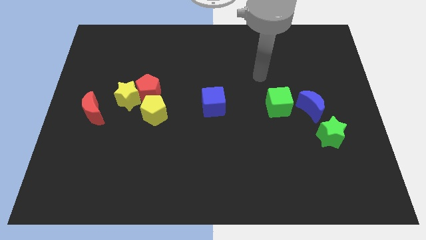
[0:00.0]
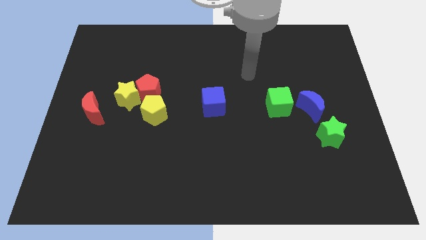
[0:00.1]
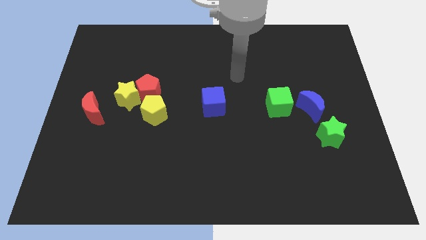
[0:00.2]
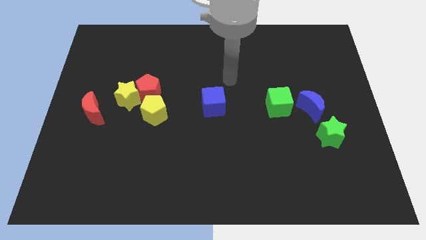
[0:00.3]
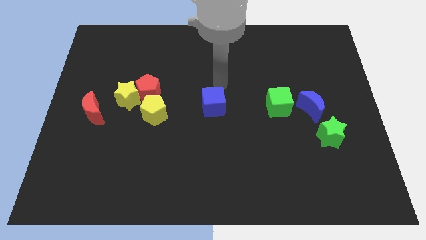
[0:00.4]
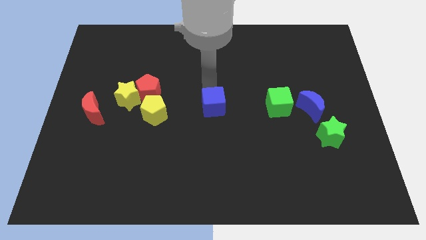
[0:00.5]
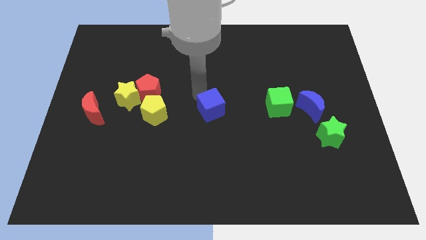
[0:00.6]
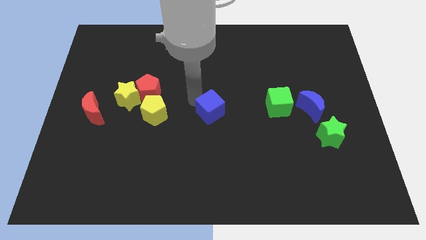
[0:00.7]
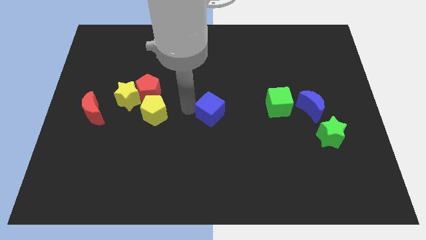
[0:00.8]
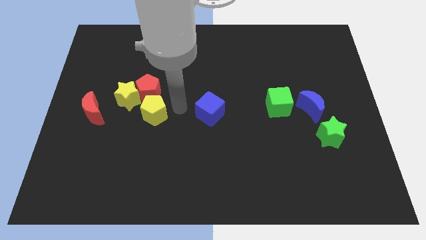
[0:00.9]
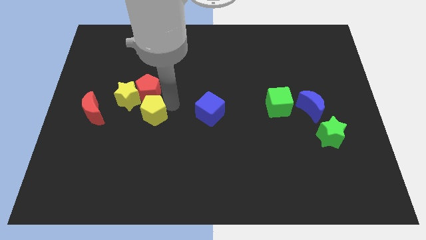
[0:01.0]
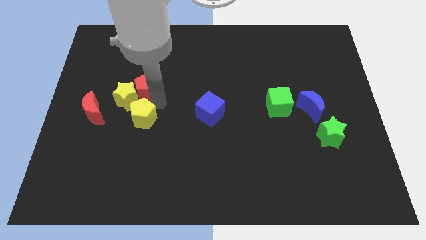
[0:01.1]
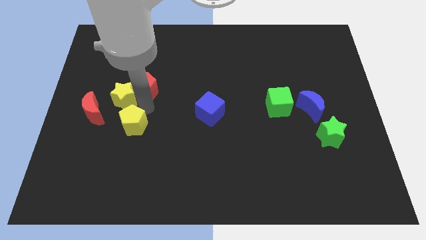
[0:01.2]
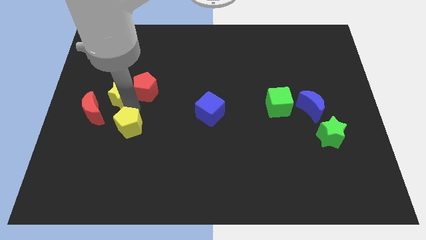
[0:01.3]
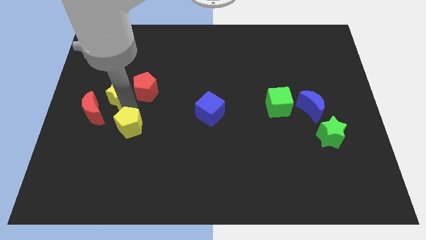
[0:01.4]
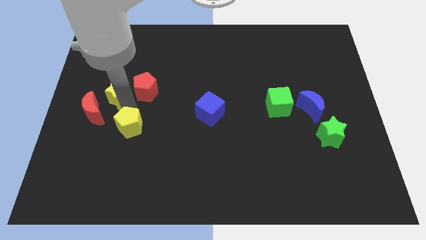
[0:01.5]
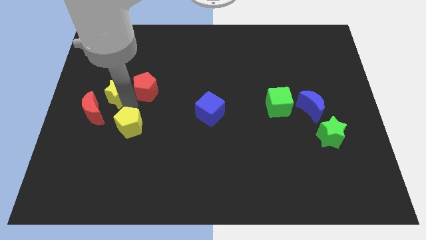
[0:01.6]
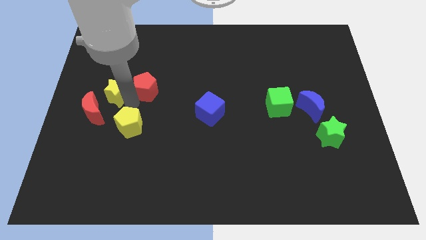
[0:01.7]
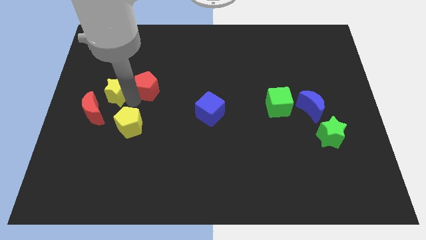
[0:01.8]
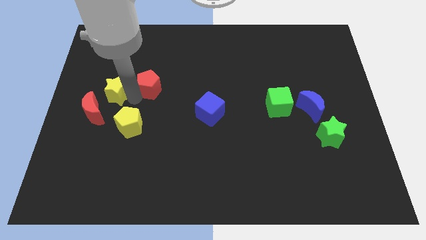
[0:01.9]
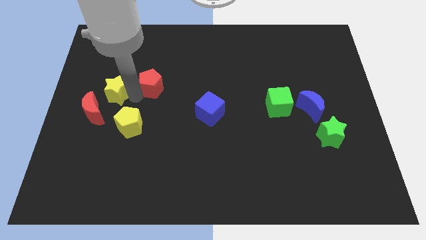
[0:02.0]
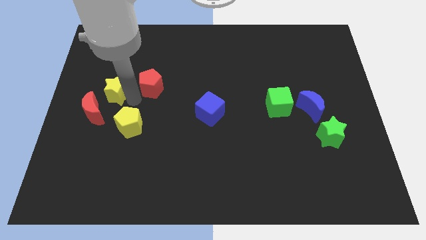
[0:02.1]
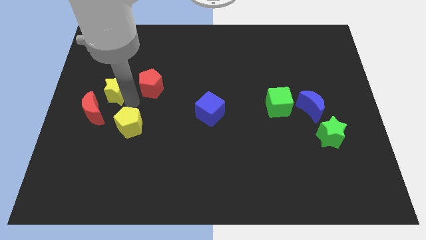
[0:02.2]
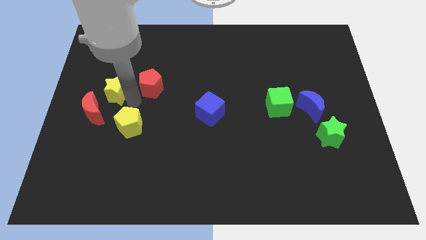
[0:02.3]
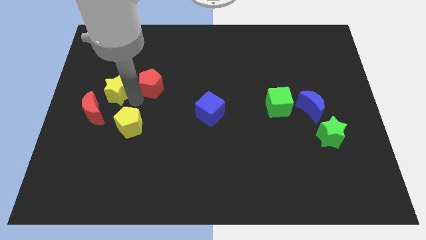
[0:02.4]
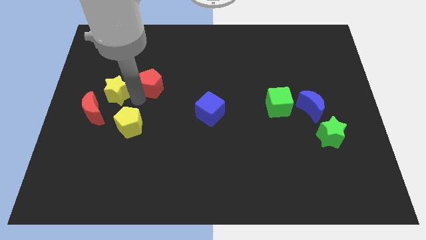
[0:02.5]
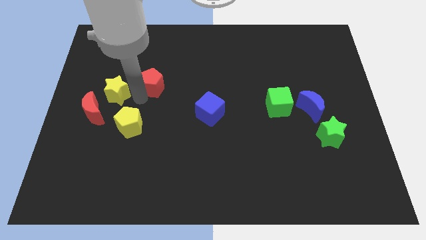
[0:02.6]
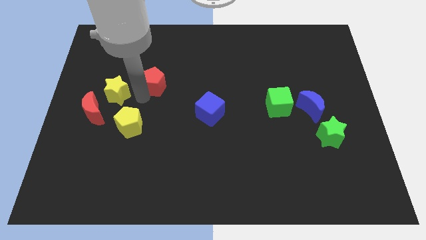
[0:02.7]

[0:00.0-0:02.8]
separate the red pentagon from the yellow star and yellow pentagon

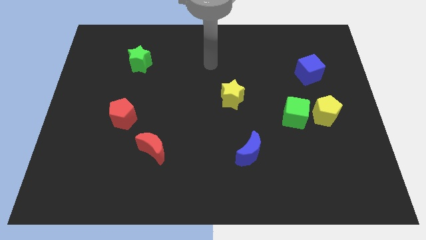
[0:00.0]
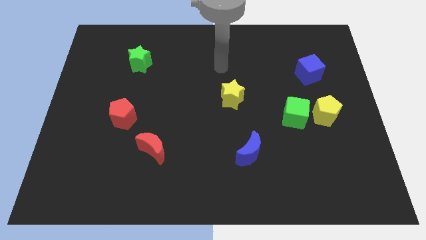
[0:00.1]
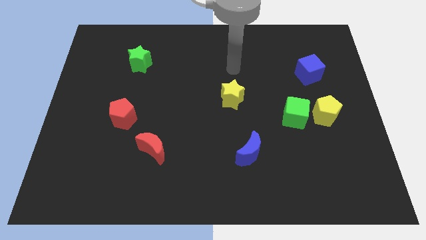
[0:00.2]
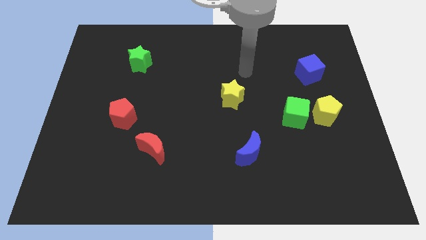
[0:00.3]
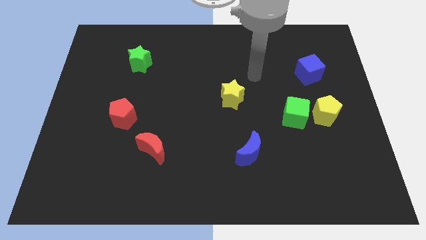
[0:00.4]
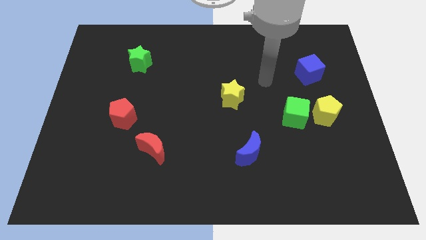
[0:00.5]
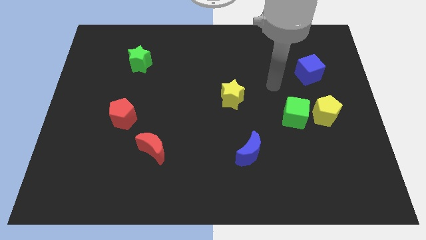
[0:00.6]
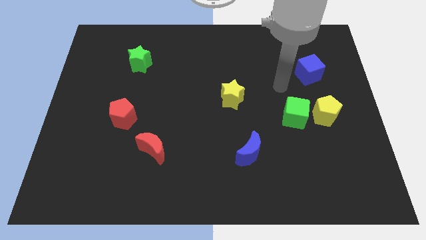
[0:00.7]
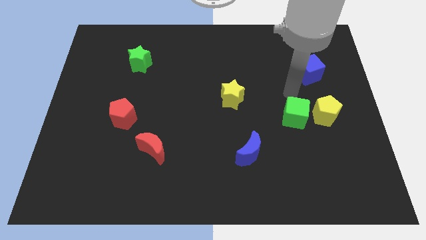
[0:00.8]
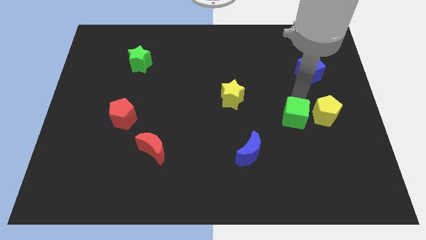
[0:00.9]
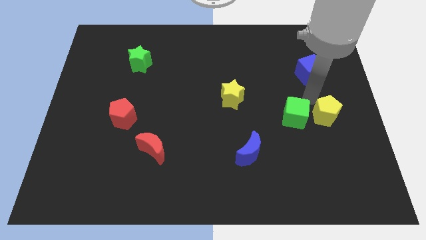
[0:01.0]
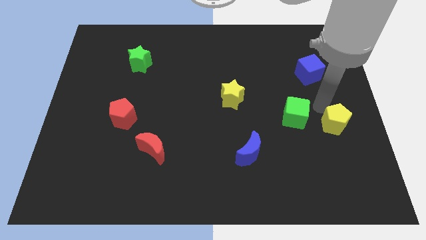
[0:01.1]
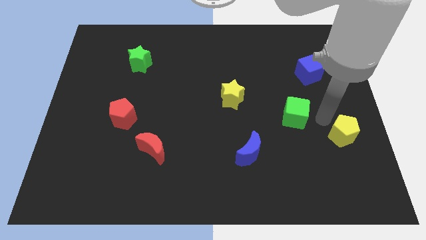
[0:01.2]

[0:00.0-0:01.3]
separate the green cube from the yellow pentagon

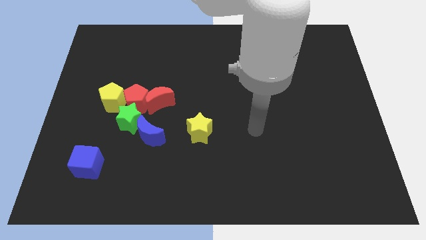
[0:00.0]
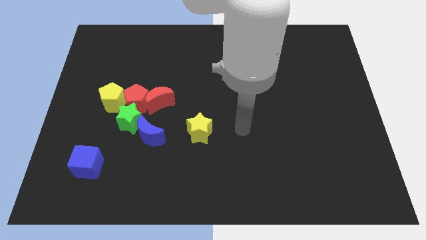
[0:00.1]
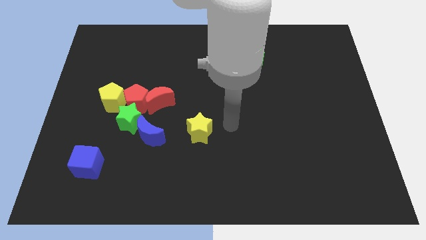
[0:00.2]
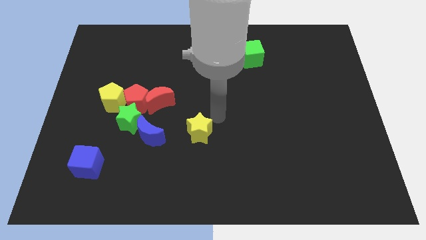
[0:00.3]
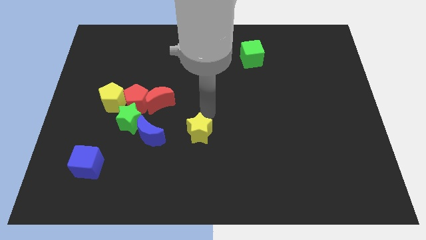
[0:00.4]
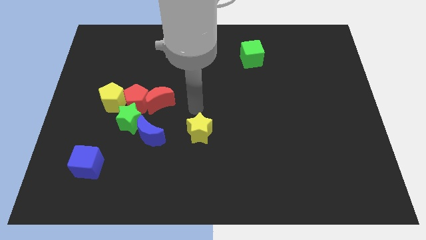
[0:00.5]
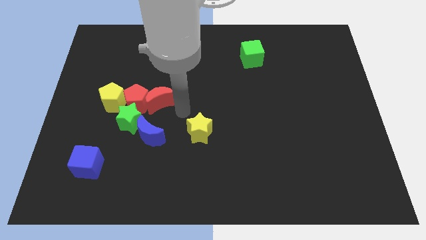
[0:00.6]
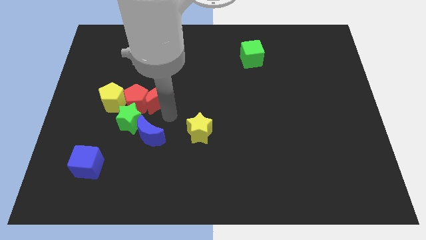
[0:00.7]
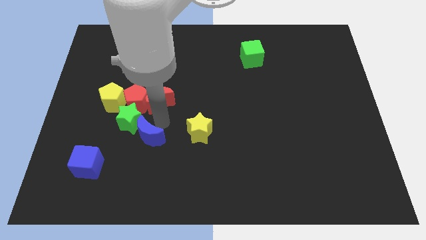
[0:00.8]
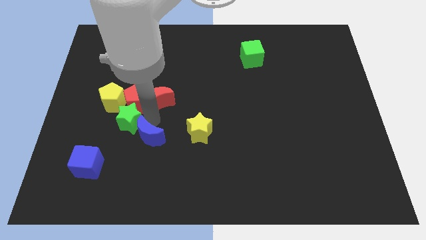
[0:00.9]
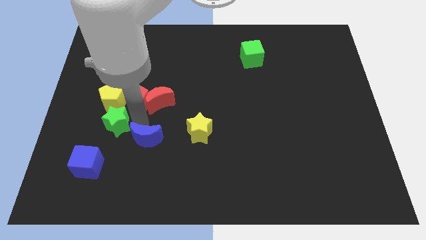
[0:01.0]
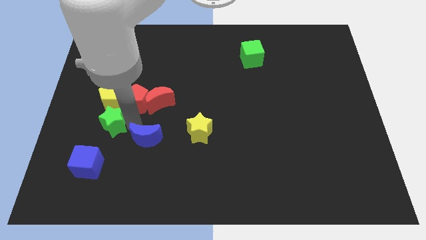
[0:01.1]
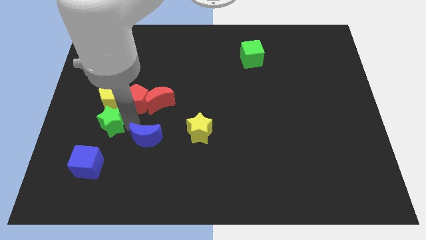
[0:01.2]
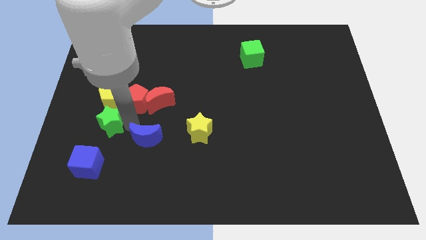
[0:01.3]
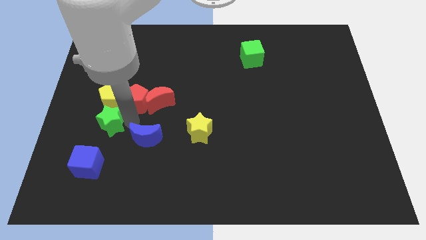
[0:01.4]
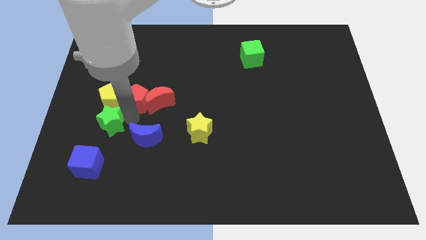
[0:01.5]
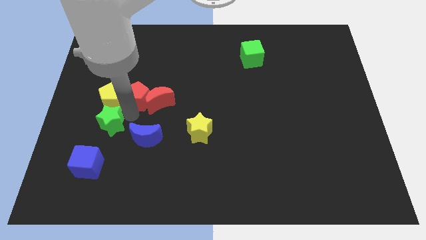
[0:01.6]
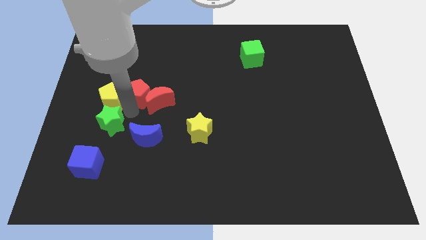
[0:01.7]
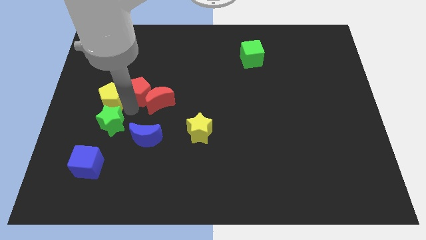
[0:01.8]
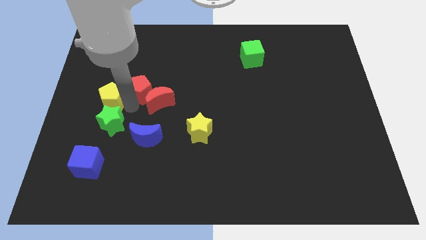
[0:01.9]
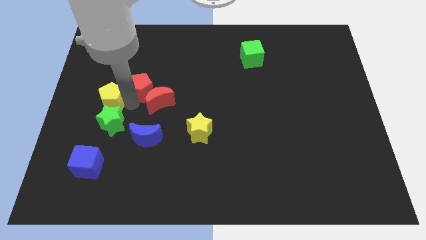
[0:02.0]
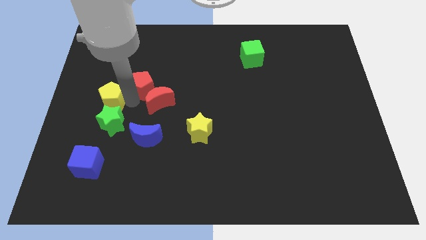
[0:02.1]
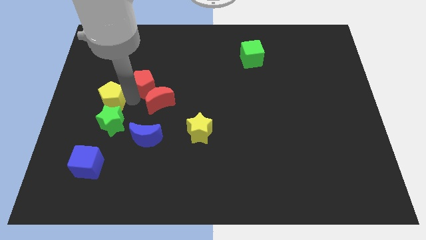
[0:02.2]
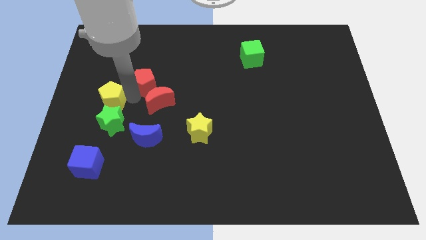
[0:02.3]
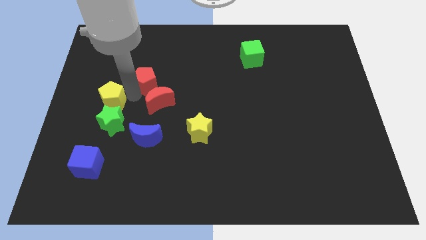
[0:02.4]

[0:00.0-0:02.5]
move the red pentagon away from the group of blocks

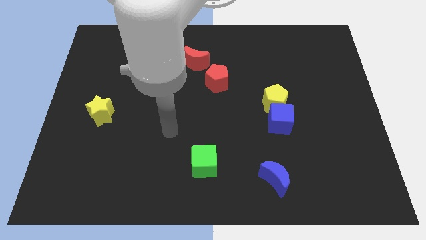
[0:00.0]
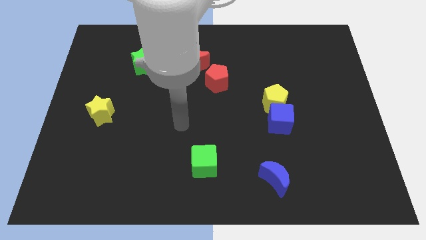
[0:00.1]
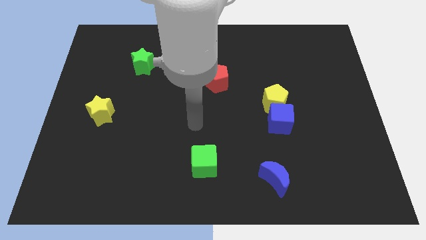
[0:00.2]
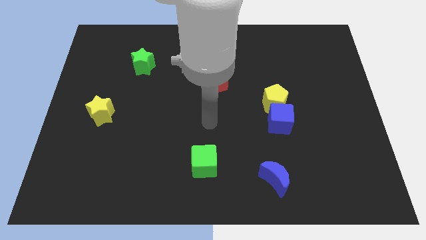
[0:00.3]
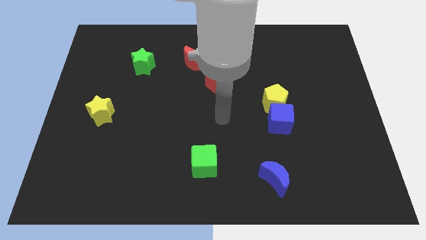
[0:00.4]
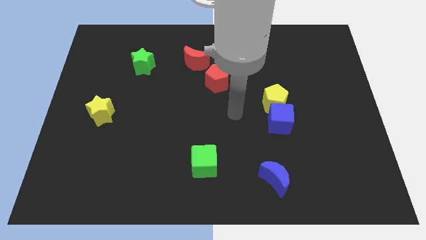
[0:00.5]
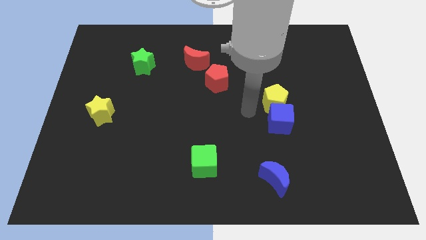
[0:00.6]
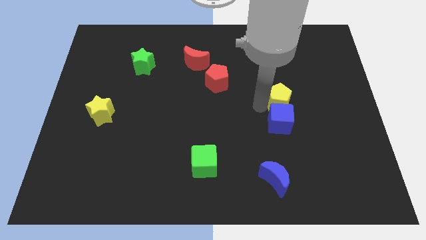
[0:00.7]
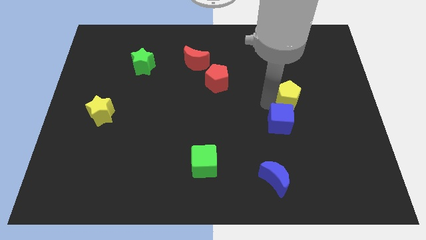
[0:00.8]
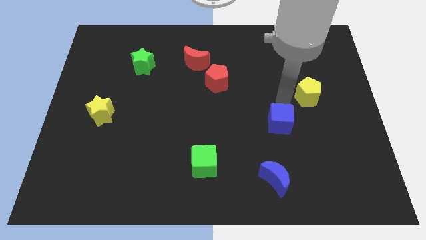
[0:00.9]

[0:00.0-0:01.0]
pull the blue cube apart from the yellow pentagon

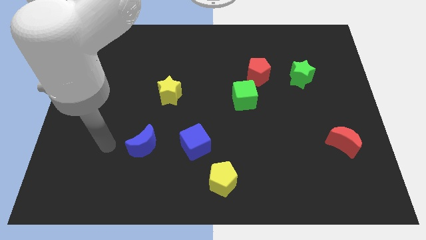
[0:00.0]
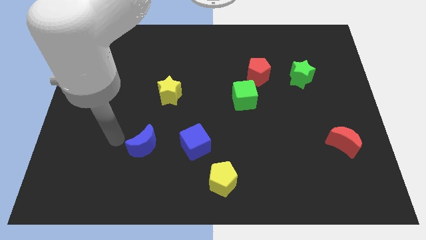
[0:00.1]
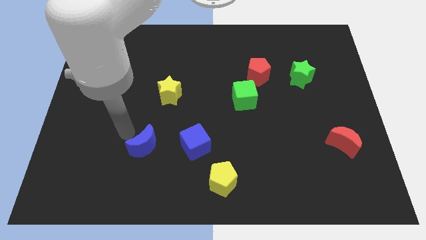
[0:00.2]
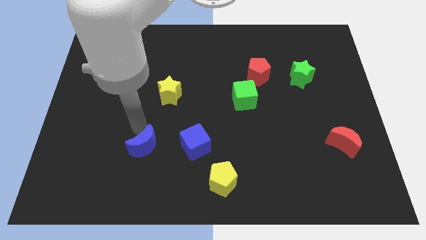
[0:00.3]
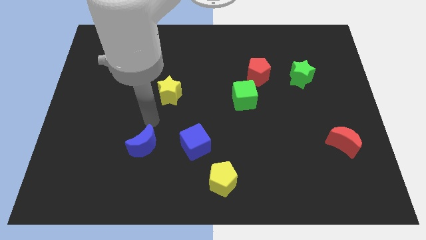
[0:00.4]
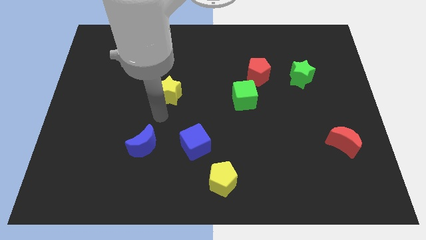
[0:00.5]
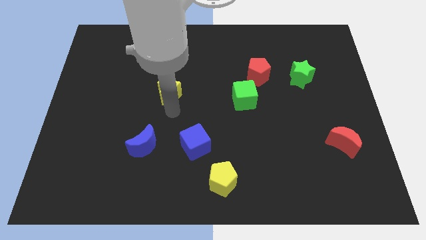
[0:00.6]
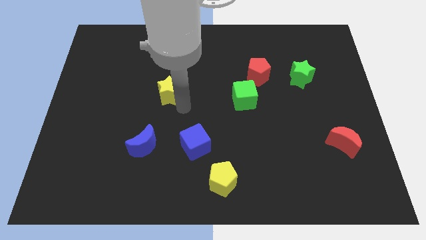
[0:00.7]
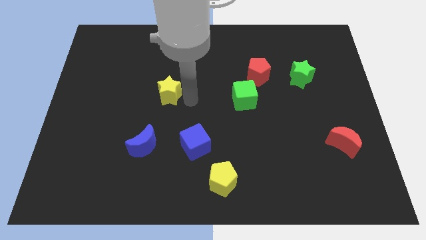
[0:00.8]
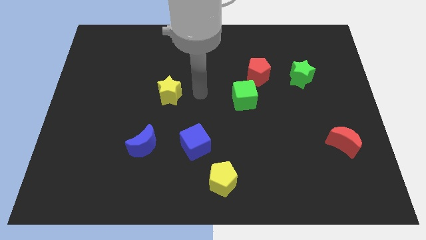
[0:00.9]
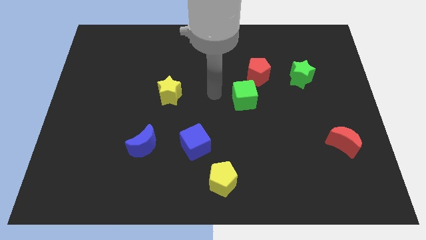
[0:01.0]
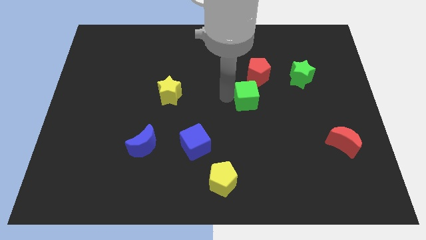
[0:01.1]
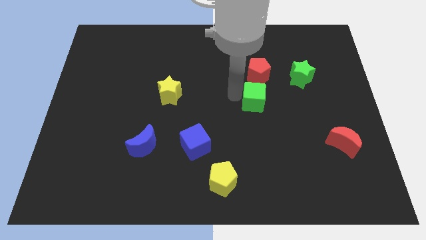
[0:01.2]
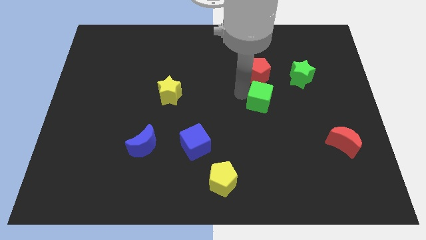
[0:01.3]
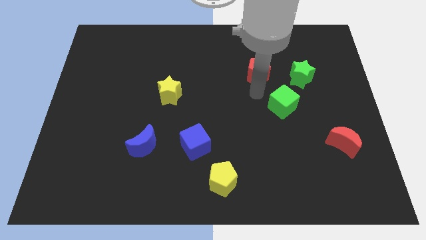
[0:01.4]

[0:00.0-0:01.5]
pull the red pentagon apart from the green cube

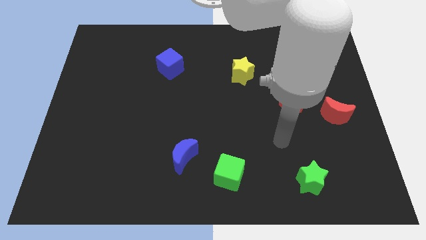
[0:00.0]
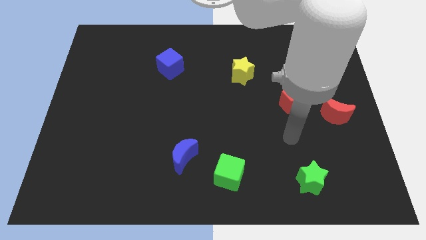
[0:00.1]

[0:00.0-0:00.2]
separate the yellow pentagon from the red pentagon
